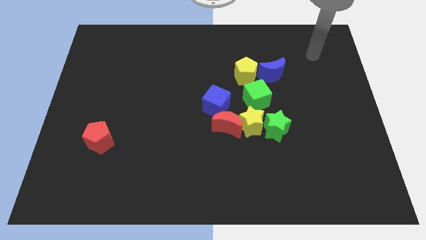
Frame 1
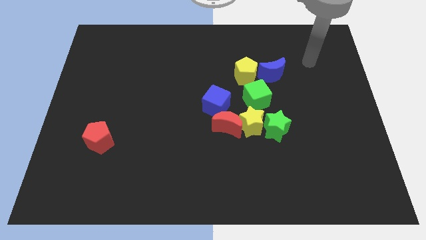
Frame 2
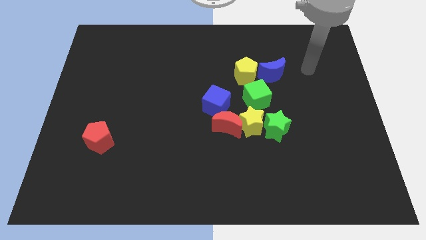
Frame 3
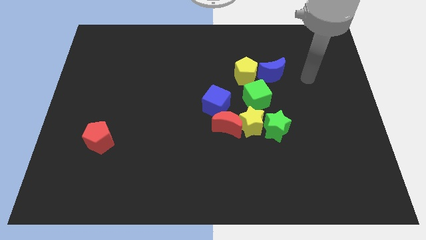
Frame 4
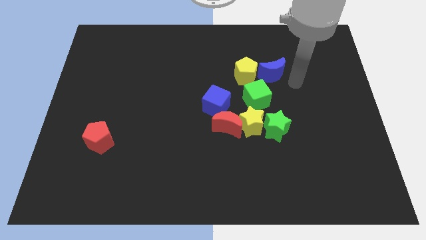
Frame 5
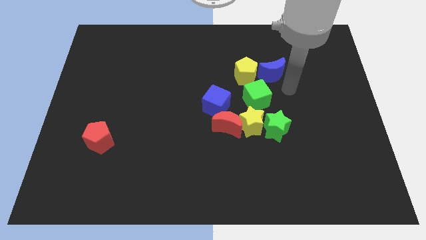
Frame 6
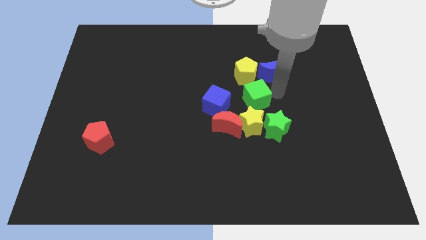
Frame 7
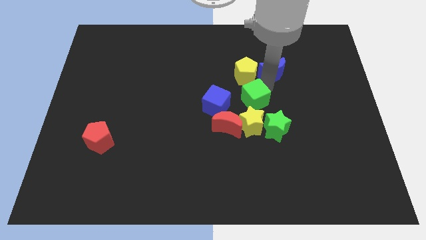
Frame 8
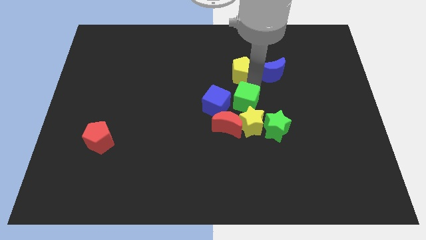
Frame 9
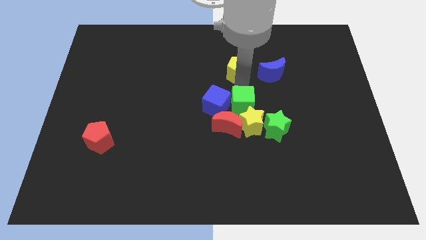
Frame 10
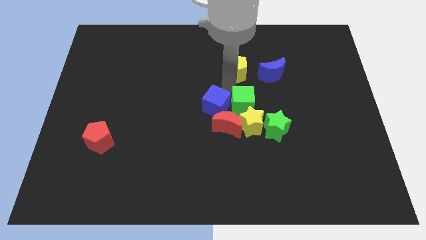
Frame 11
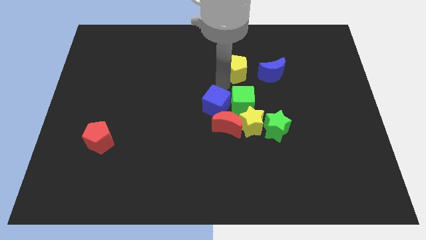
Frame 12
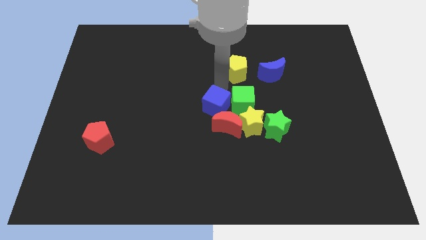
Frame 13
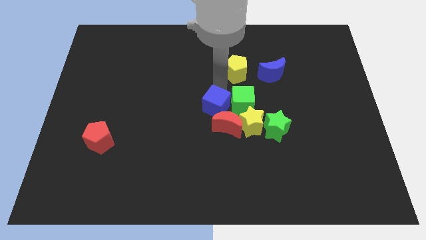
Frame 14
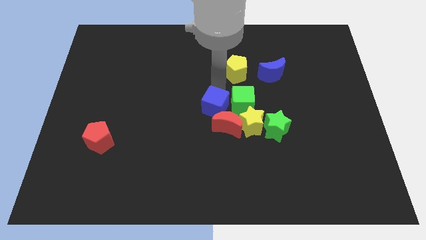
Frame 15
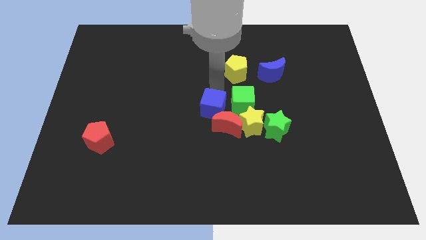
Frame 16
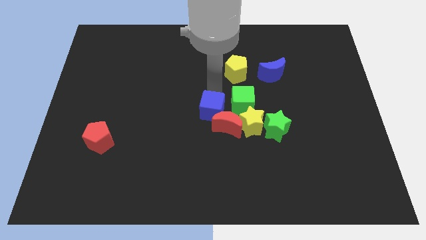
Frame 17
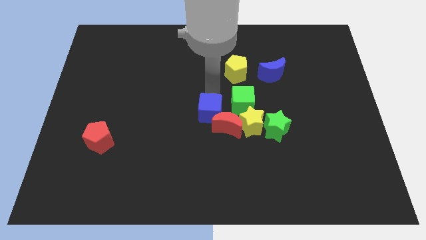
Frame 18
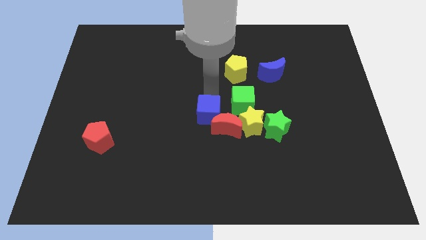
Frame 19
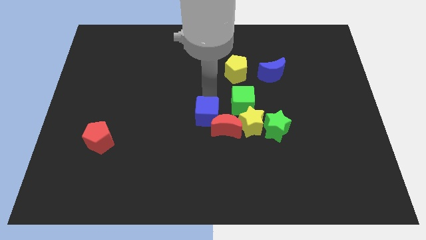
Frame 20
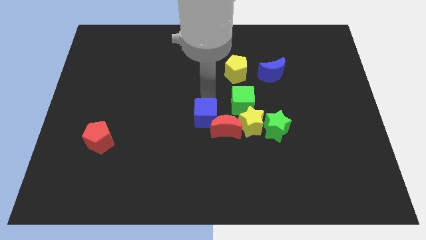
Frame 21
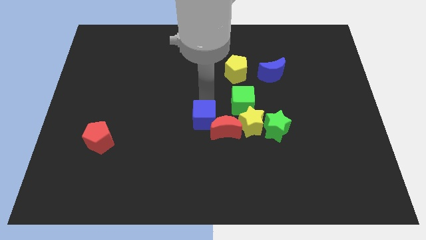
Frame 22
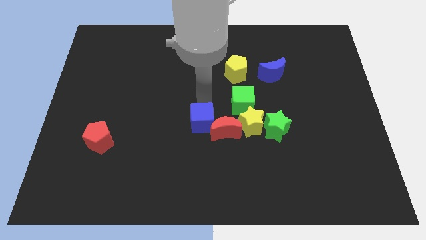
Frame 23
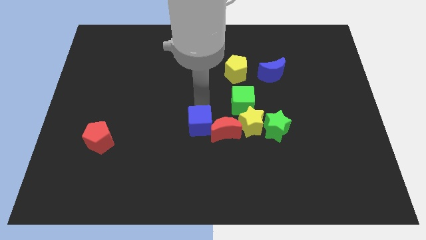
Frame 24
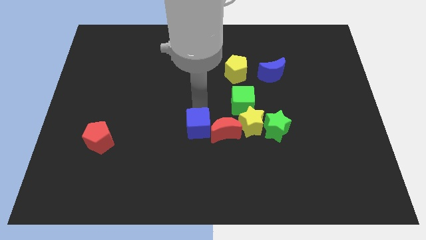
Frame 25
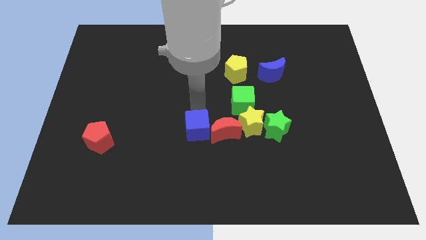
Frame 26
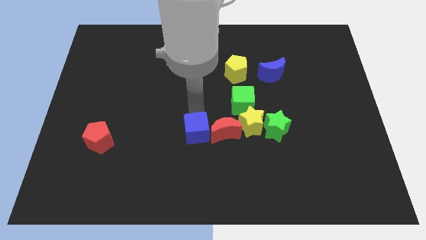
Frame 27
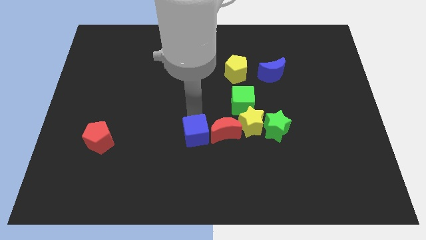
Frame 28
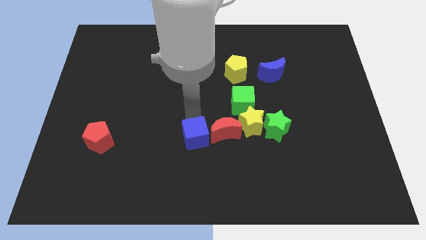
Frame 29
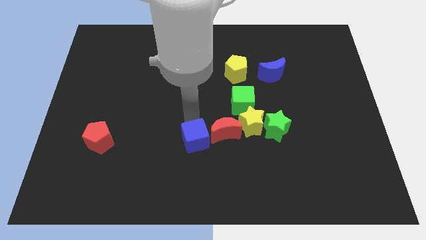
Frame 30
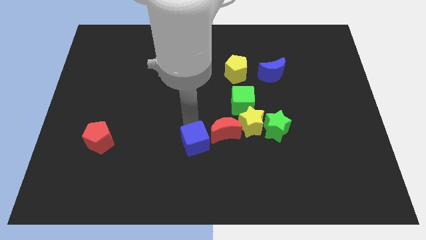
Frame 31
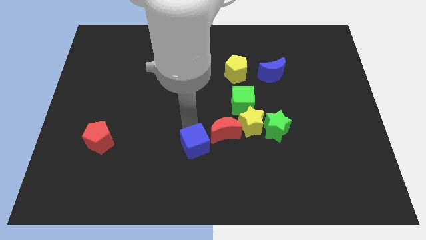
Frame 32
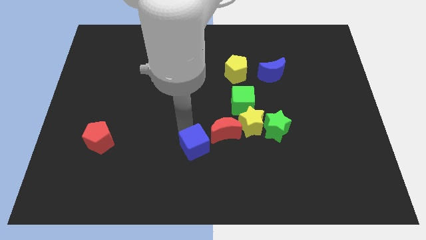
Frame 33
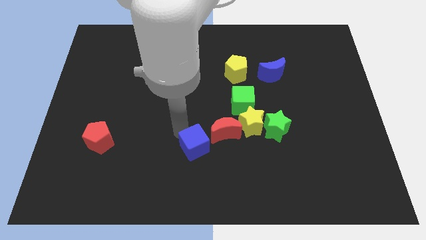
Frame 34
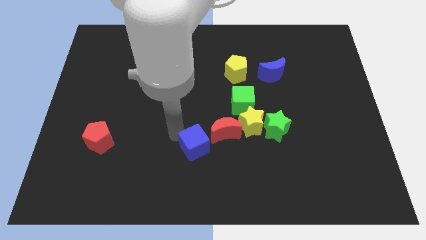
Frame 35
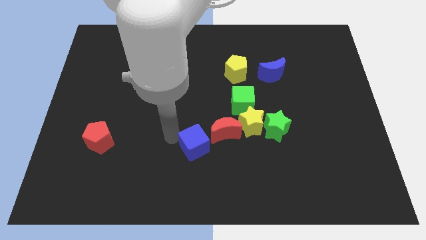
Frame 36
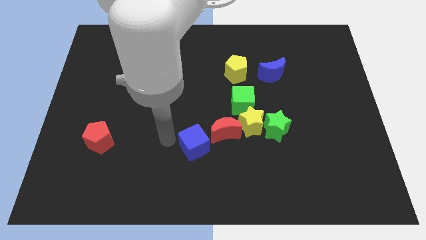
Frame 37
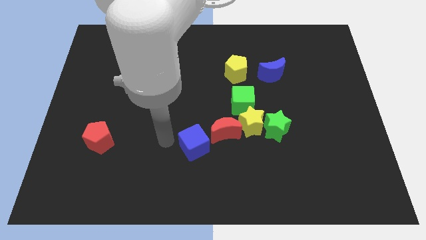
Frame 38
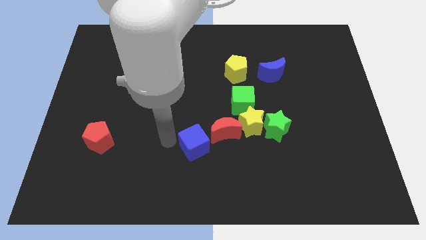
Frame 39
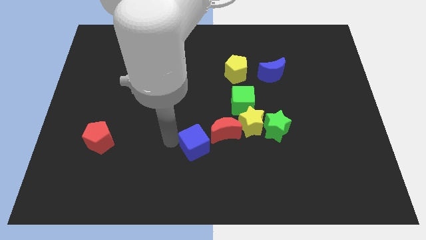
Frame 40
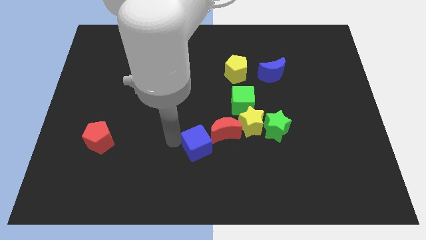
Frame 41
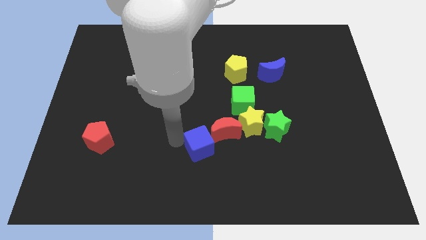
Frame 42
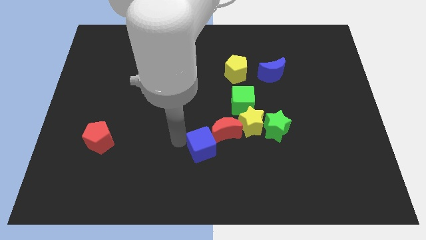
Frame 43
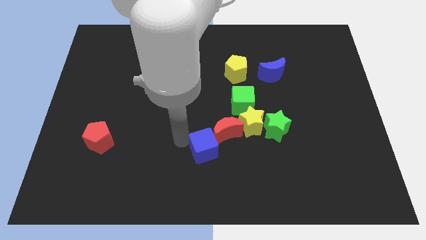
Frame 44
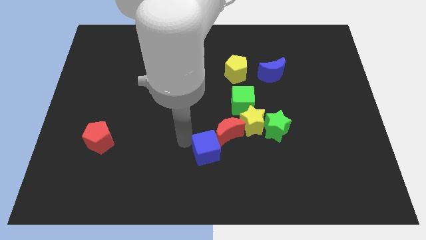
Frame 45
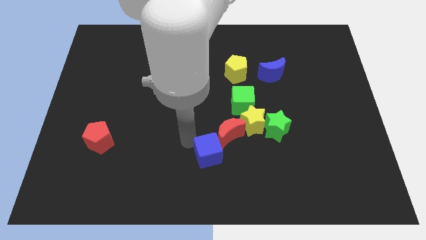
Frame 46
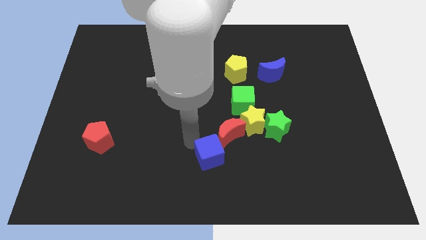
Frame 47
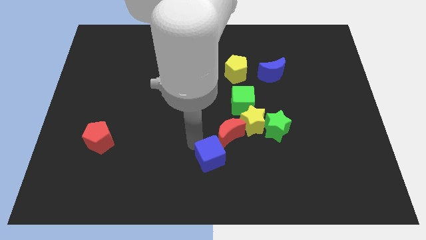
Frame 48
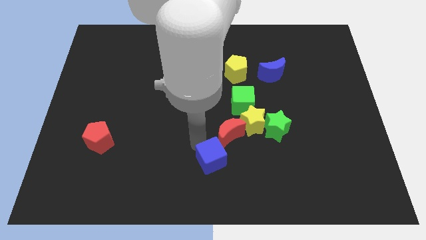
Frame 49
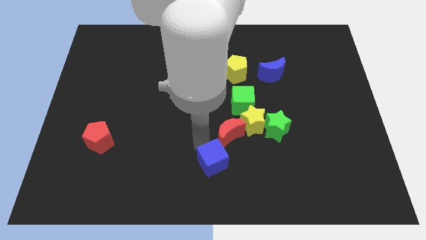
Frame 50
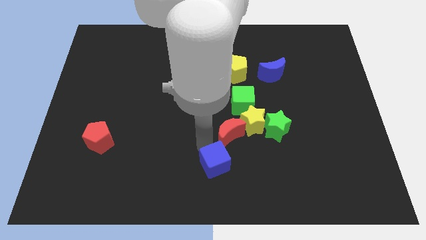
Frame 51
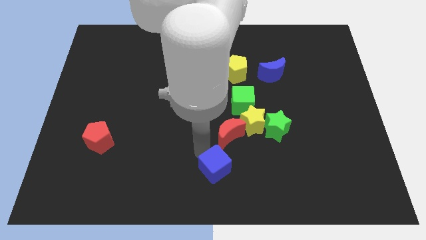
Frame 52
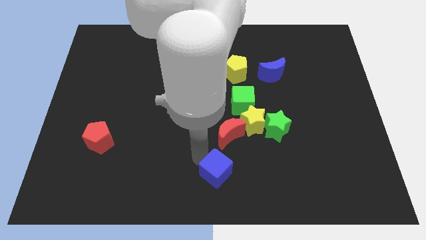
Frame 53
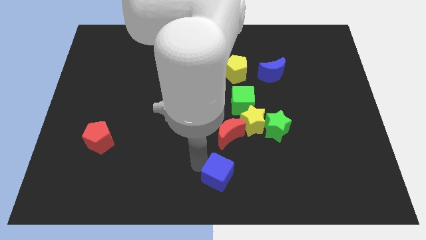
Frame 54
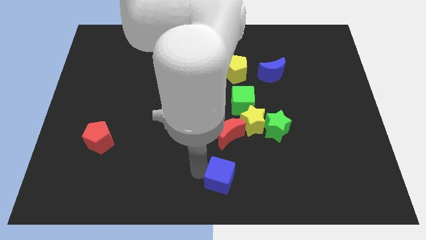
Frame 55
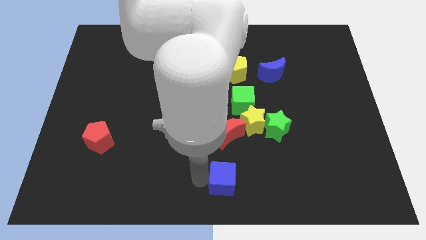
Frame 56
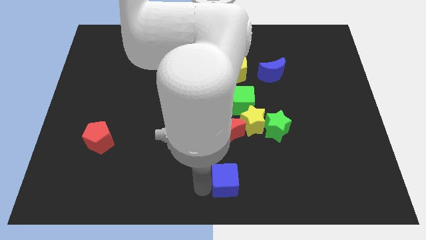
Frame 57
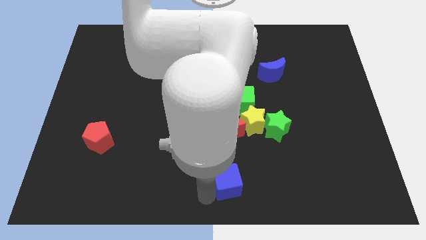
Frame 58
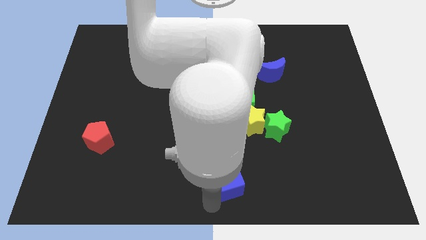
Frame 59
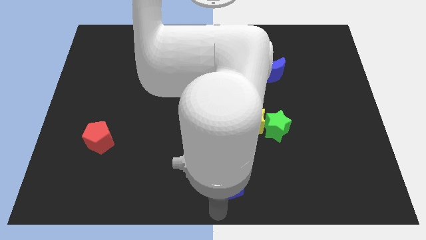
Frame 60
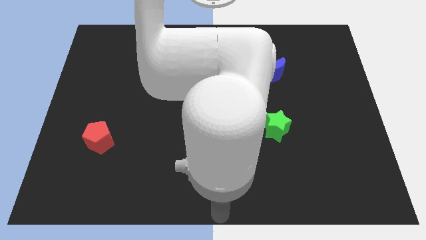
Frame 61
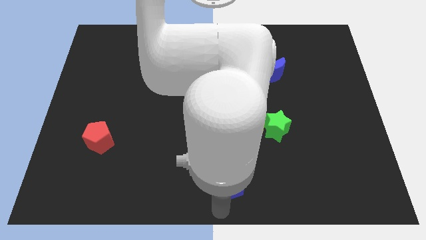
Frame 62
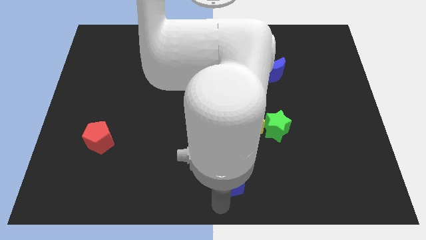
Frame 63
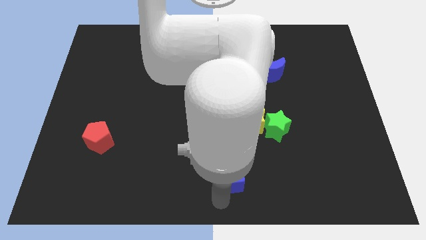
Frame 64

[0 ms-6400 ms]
push the blue cube a little bit diagonally down and to the right

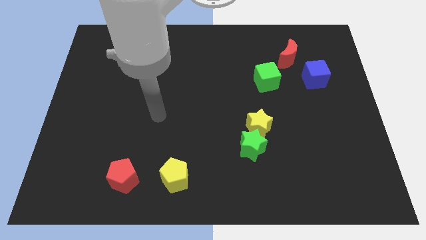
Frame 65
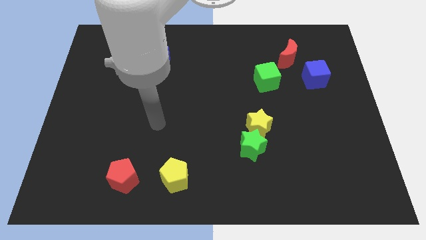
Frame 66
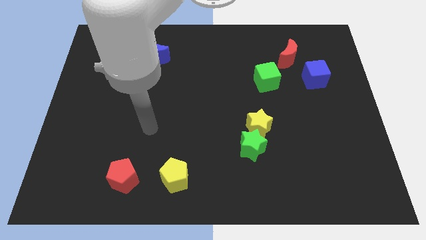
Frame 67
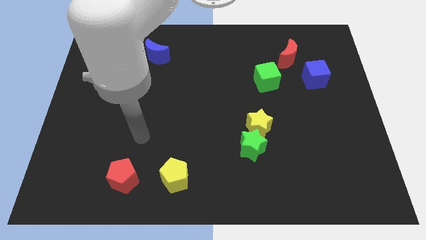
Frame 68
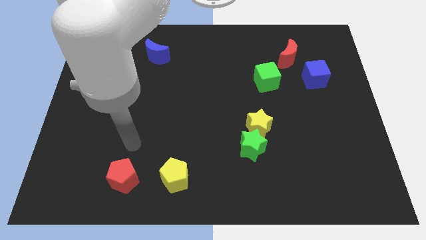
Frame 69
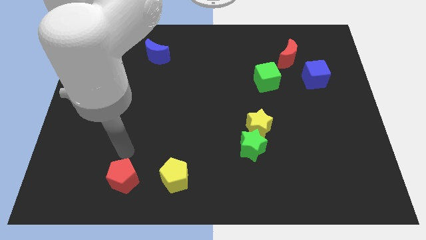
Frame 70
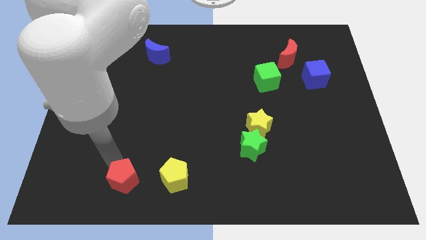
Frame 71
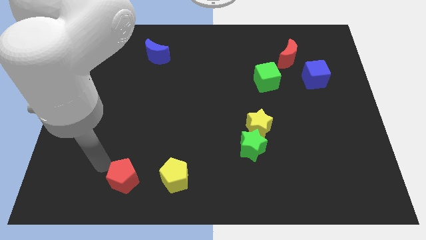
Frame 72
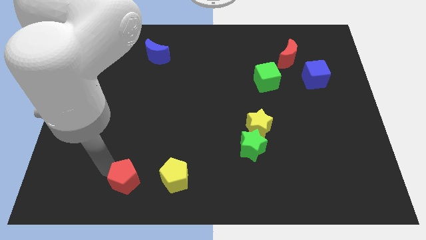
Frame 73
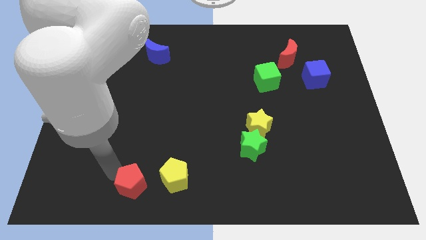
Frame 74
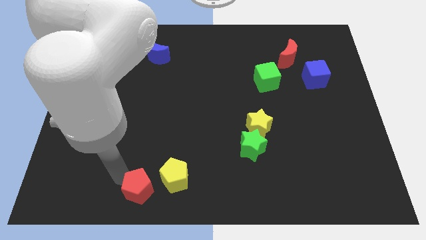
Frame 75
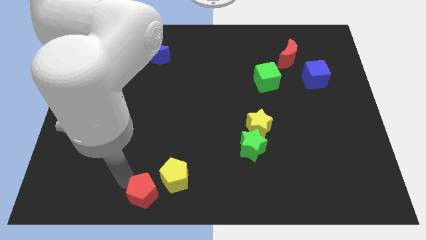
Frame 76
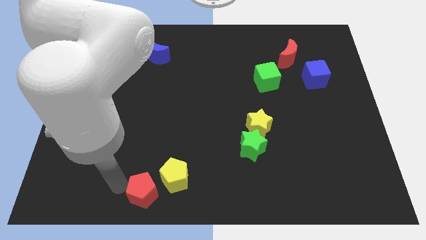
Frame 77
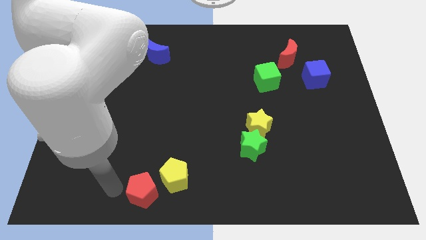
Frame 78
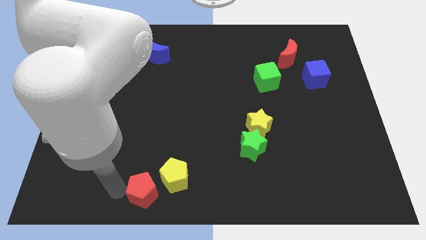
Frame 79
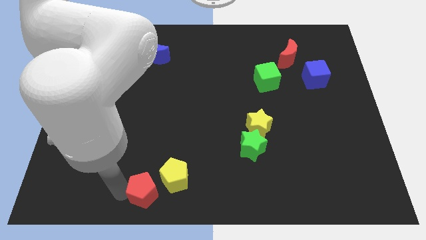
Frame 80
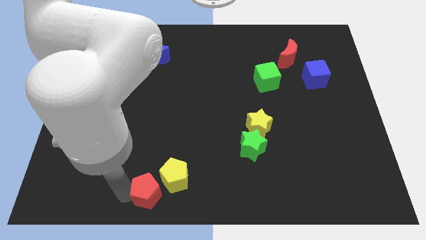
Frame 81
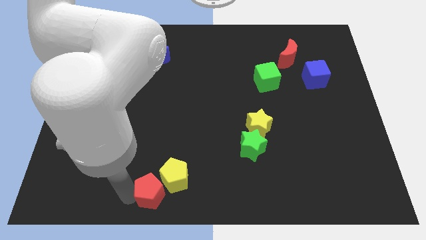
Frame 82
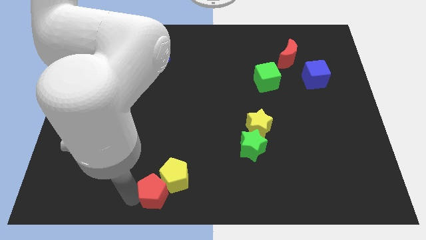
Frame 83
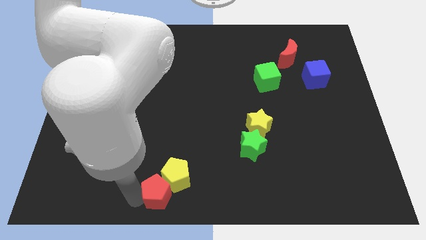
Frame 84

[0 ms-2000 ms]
move the red pentagon right a little bit
